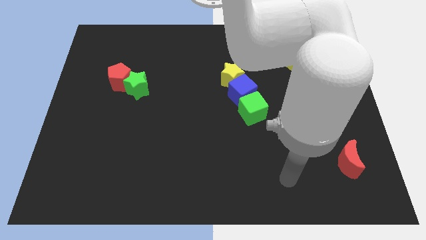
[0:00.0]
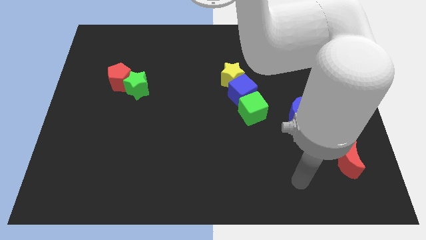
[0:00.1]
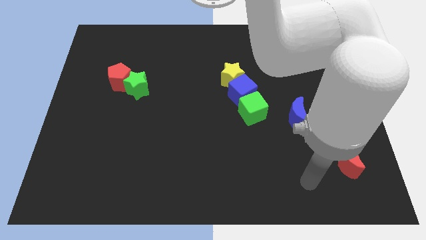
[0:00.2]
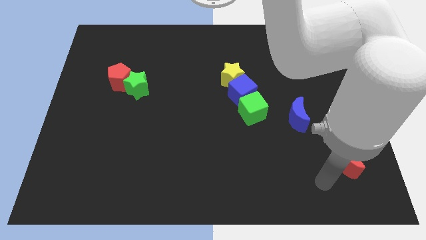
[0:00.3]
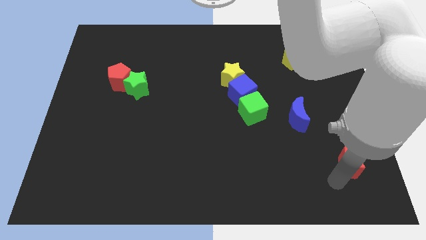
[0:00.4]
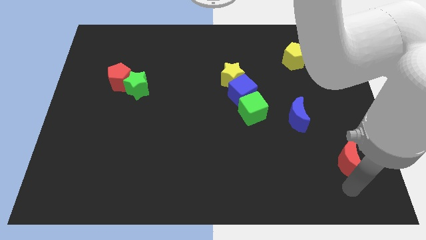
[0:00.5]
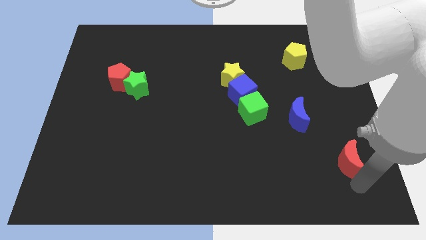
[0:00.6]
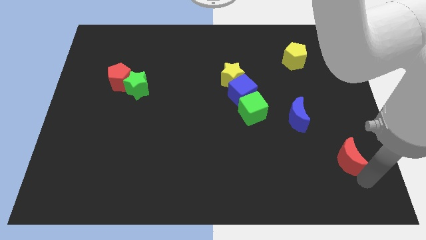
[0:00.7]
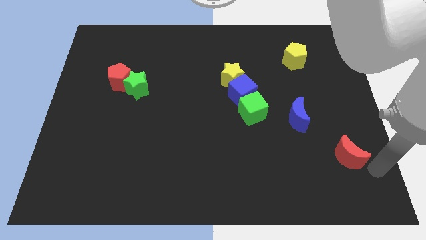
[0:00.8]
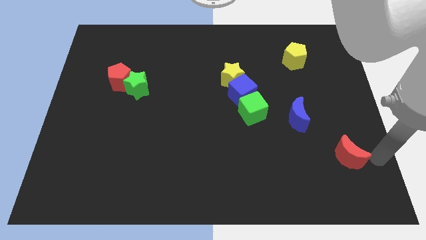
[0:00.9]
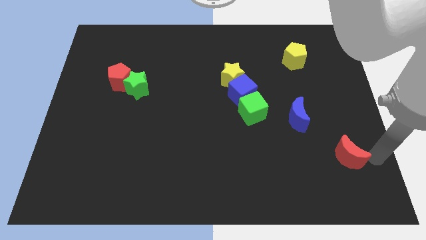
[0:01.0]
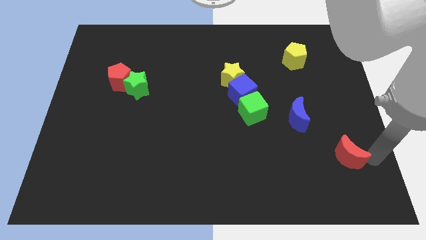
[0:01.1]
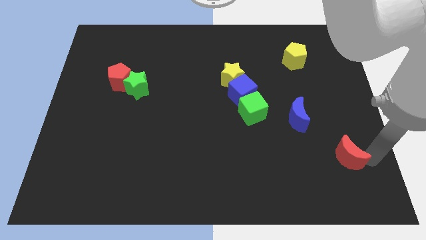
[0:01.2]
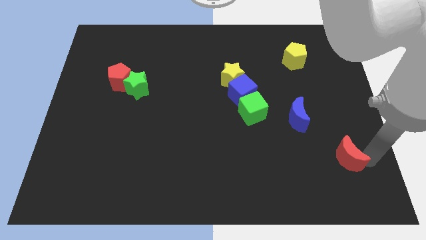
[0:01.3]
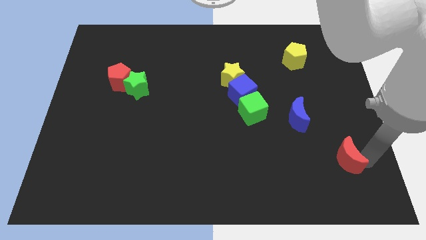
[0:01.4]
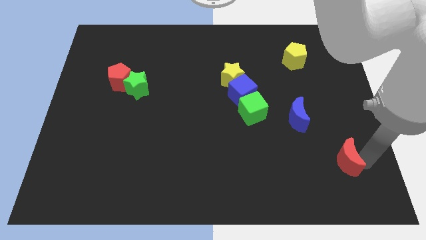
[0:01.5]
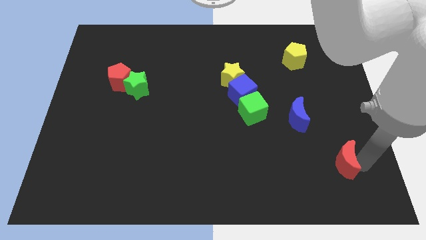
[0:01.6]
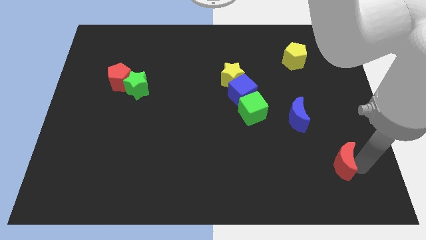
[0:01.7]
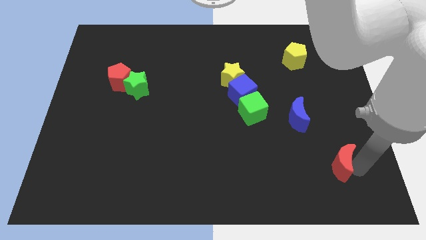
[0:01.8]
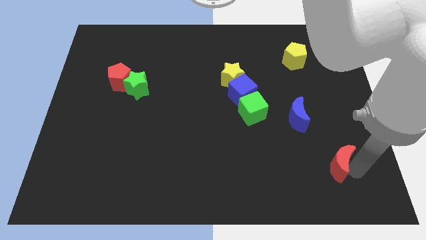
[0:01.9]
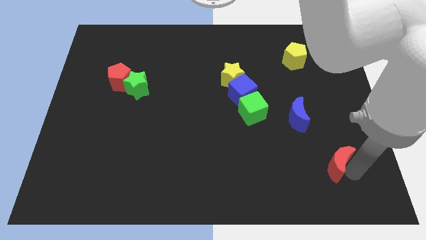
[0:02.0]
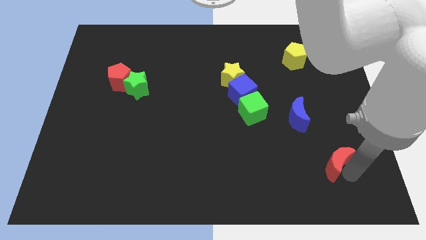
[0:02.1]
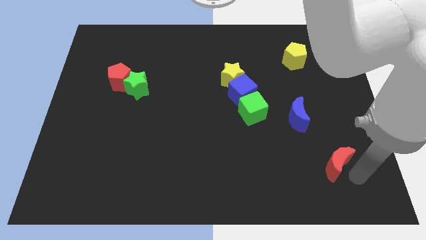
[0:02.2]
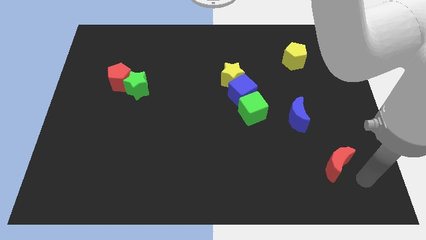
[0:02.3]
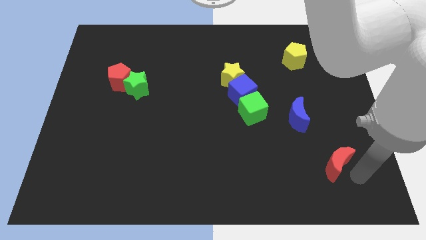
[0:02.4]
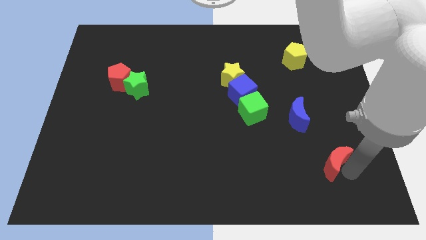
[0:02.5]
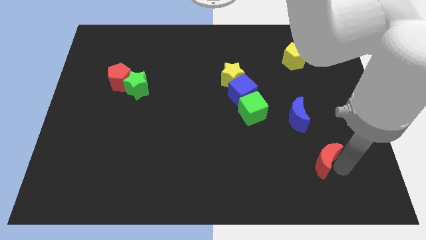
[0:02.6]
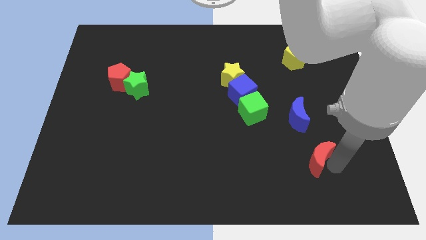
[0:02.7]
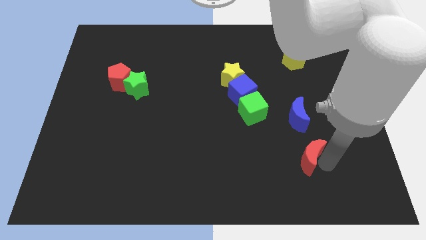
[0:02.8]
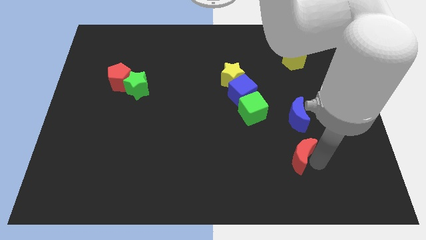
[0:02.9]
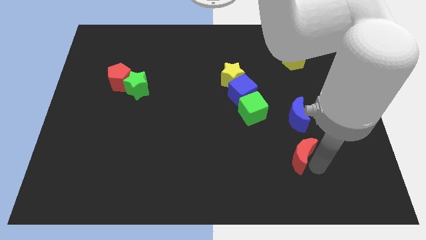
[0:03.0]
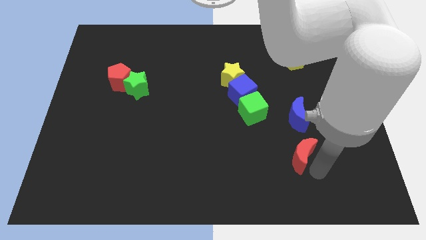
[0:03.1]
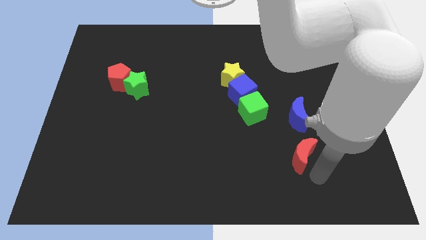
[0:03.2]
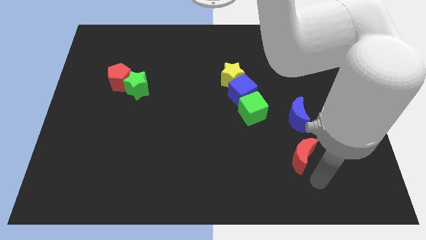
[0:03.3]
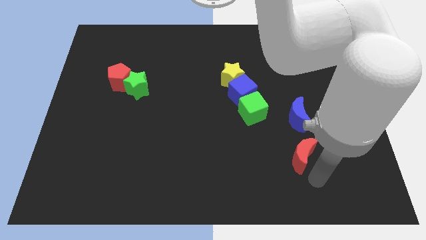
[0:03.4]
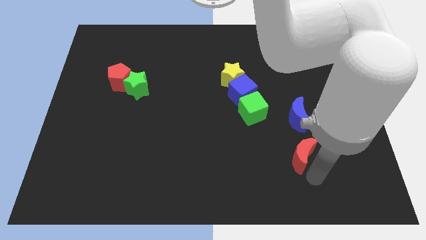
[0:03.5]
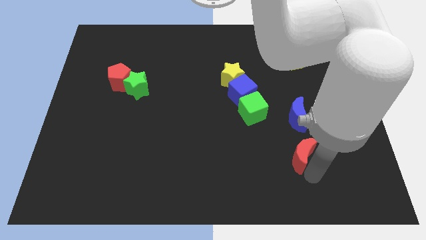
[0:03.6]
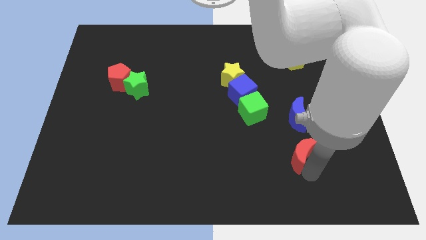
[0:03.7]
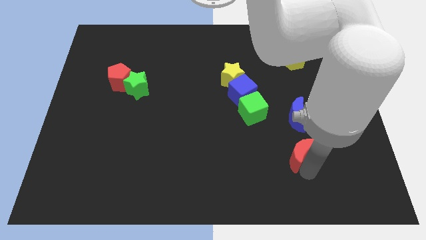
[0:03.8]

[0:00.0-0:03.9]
move the red moon a little bit diagonally upwards and left

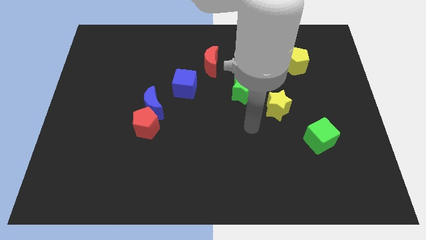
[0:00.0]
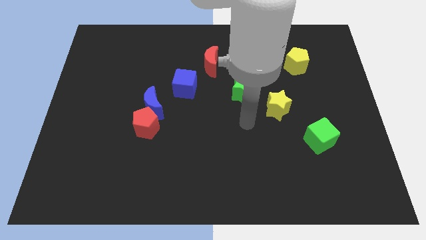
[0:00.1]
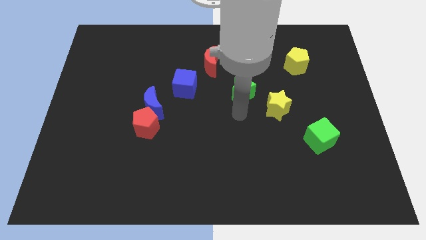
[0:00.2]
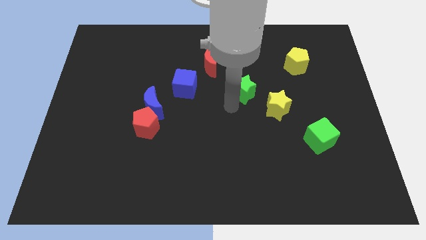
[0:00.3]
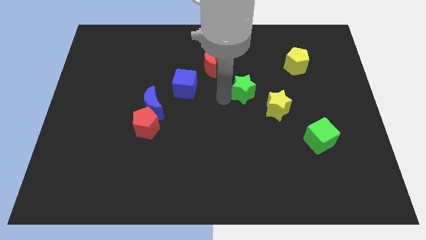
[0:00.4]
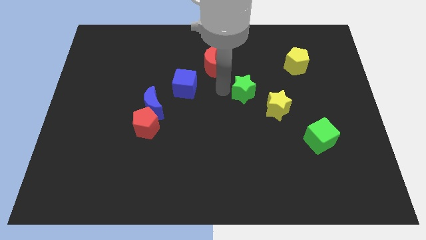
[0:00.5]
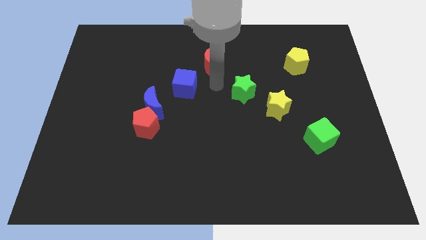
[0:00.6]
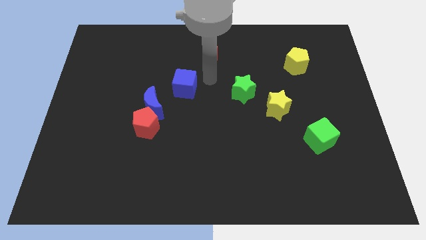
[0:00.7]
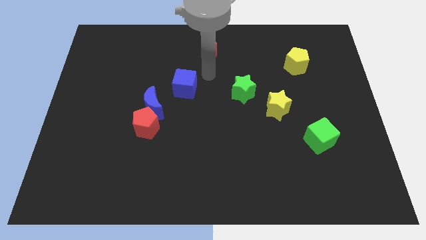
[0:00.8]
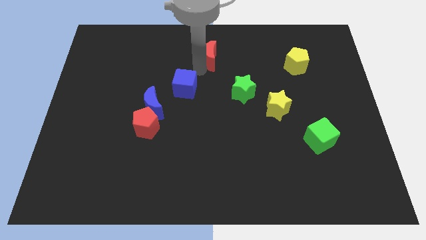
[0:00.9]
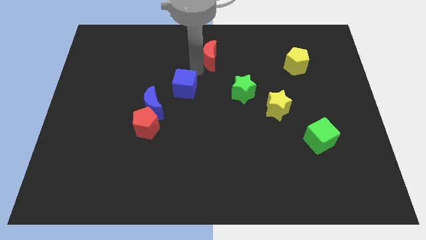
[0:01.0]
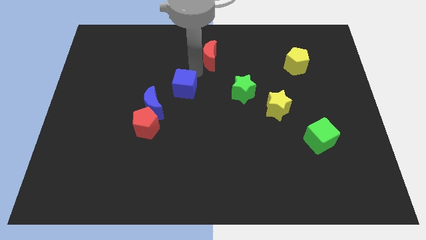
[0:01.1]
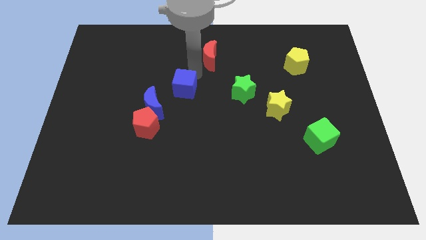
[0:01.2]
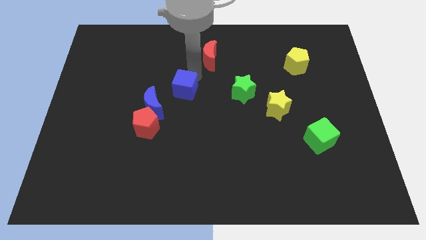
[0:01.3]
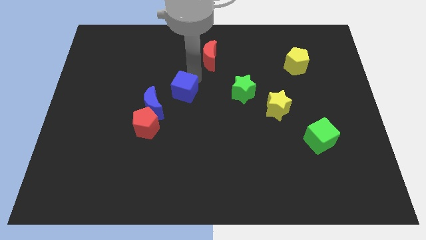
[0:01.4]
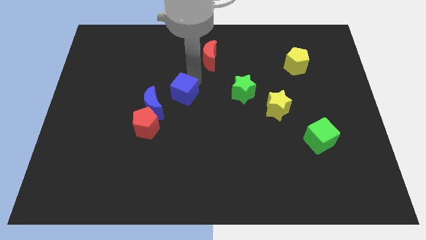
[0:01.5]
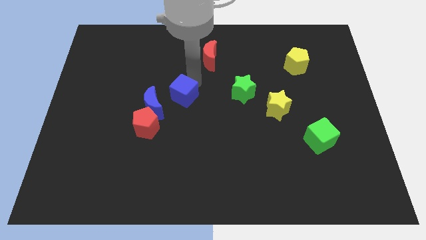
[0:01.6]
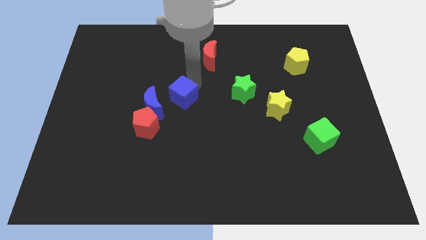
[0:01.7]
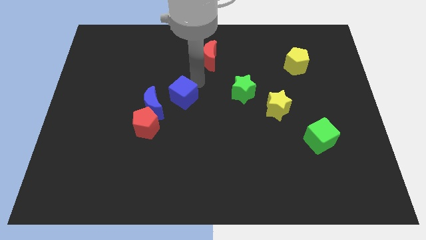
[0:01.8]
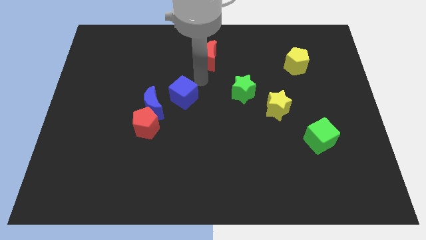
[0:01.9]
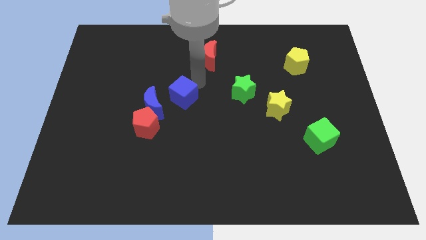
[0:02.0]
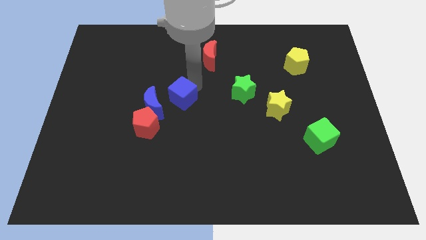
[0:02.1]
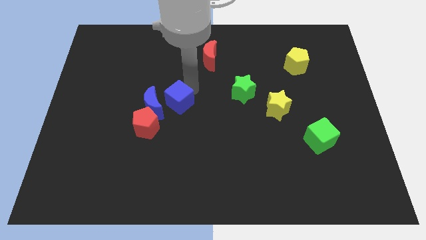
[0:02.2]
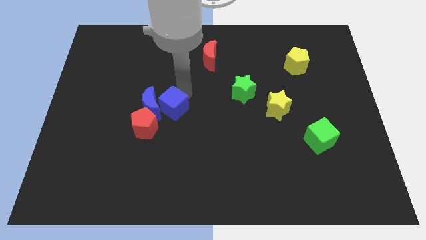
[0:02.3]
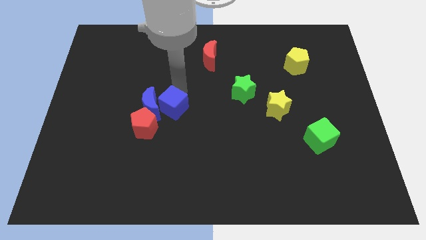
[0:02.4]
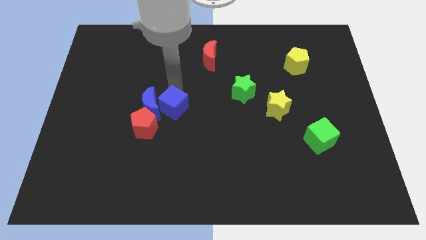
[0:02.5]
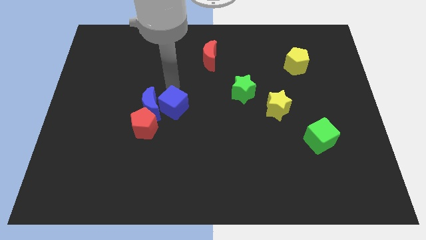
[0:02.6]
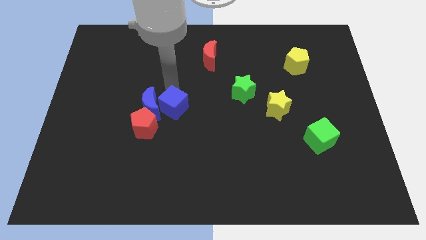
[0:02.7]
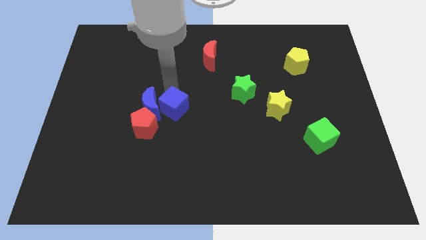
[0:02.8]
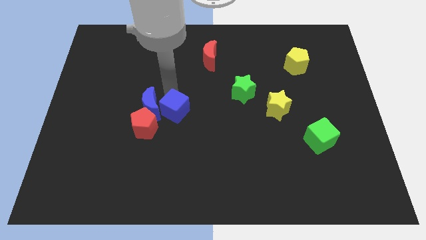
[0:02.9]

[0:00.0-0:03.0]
slide the blue cube down a little bit

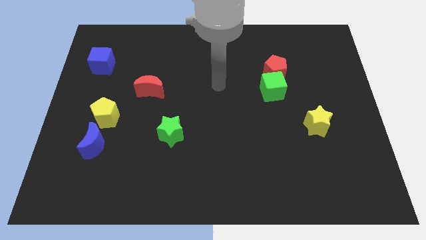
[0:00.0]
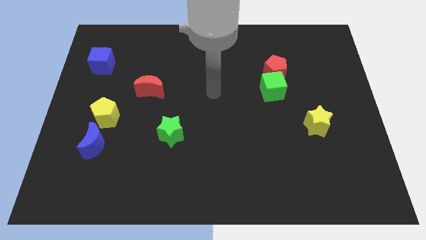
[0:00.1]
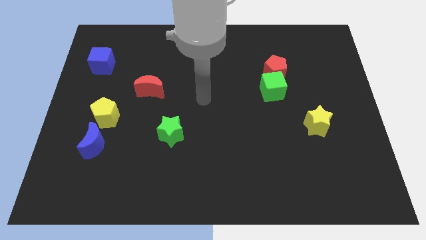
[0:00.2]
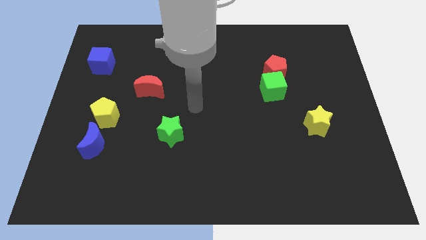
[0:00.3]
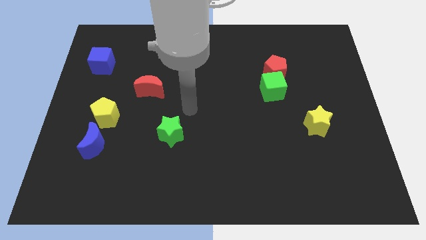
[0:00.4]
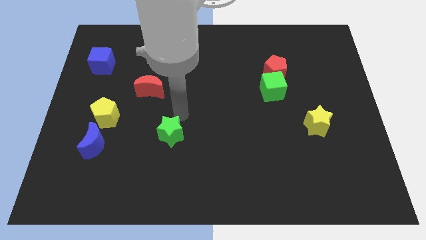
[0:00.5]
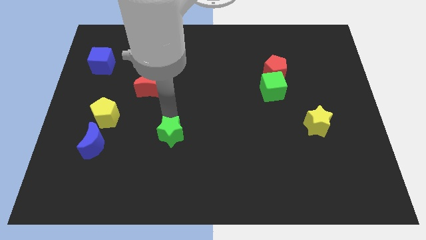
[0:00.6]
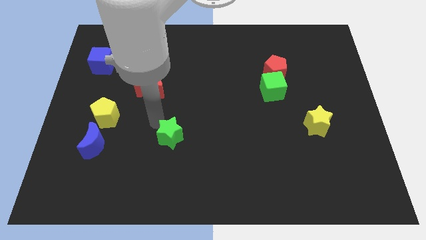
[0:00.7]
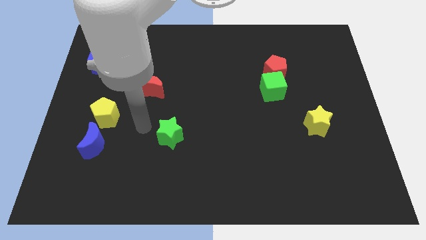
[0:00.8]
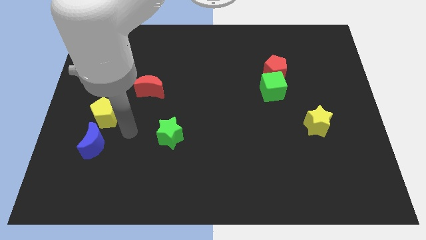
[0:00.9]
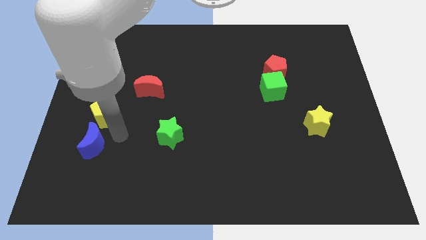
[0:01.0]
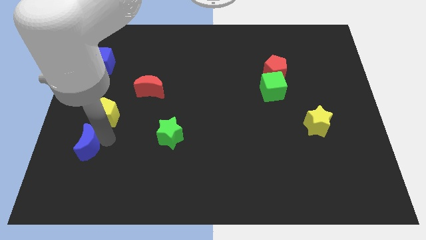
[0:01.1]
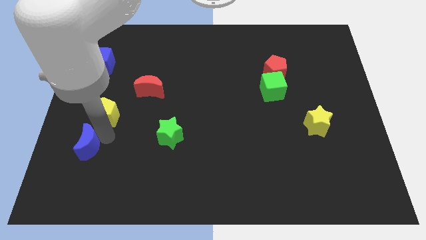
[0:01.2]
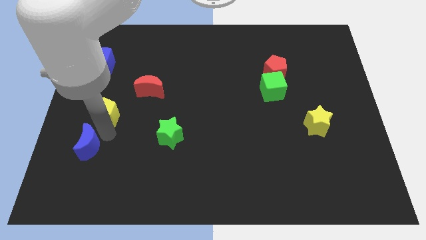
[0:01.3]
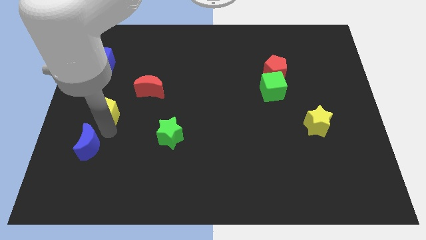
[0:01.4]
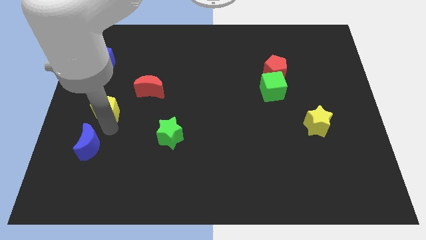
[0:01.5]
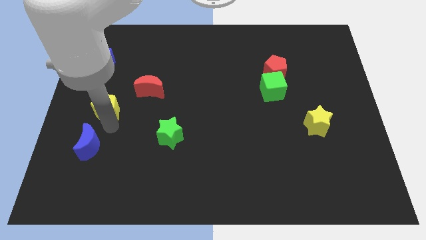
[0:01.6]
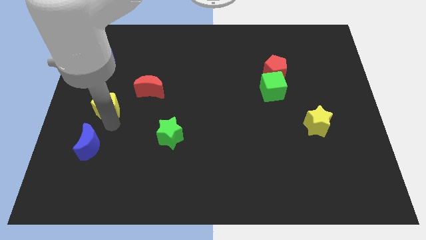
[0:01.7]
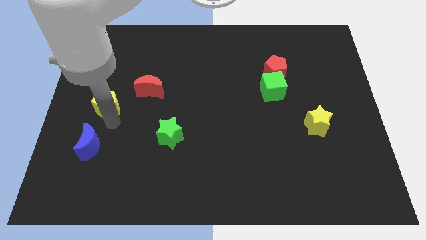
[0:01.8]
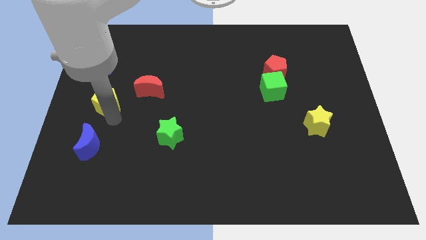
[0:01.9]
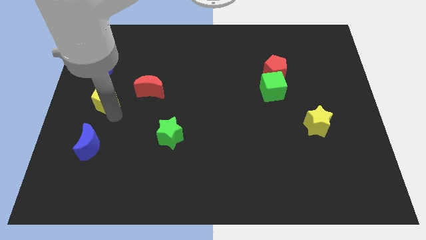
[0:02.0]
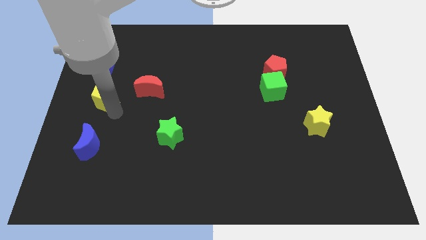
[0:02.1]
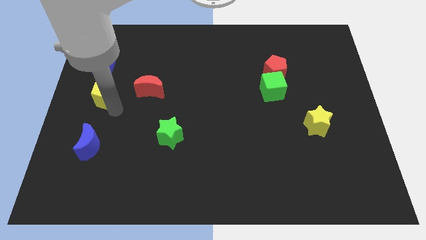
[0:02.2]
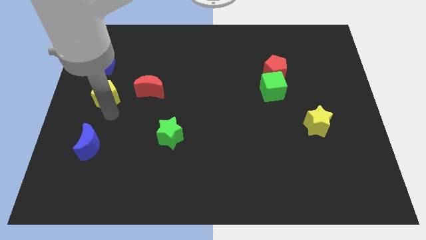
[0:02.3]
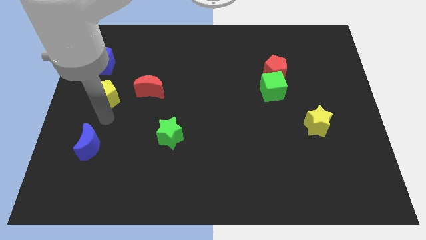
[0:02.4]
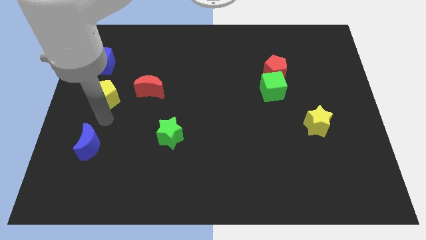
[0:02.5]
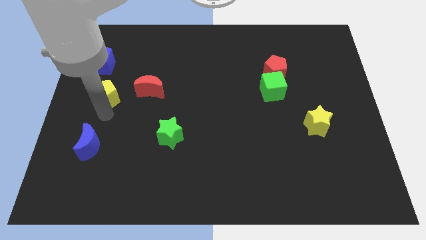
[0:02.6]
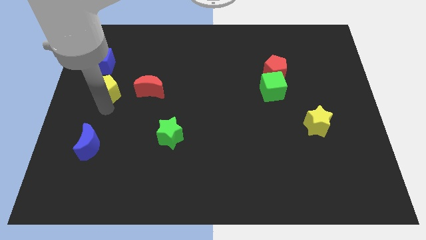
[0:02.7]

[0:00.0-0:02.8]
slide the yellow pentagon up a little bit
